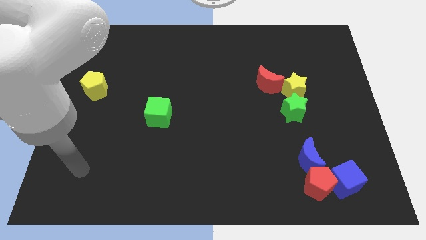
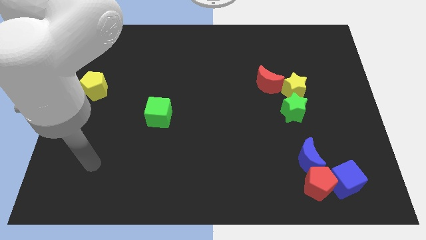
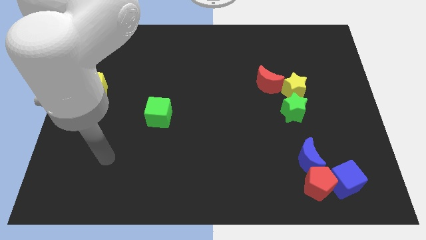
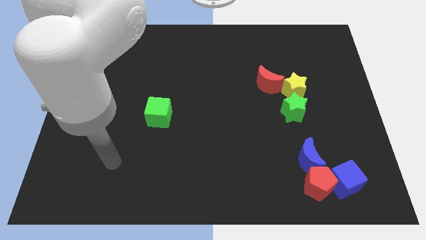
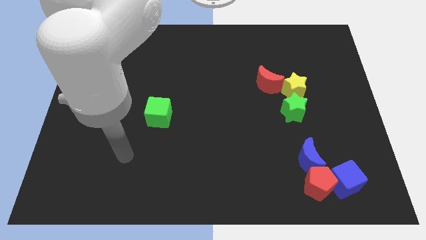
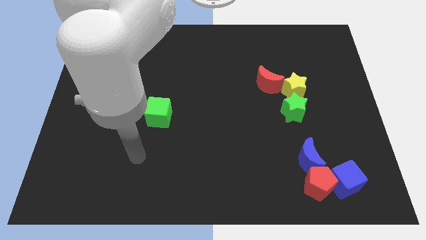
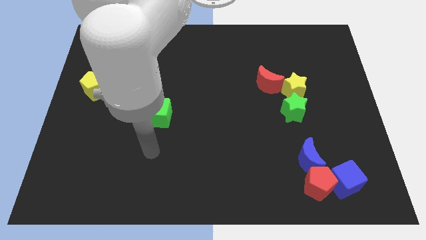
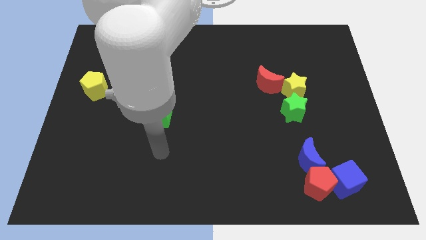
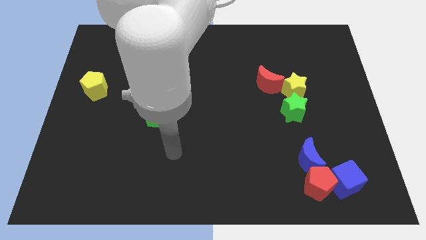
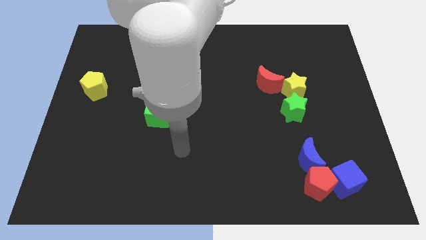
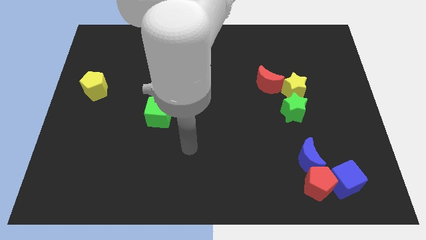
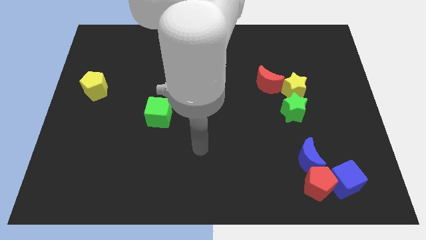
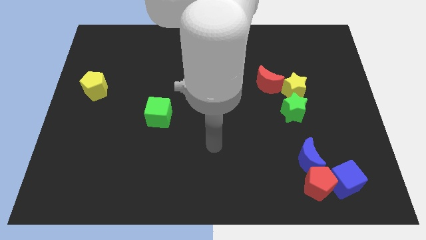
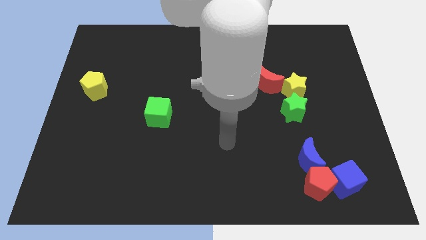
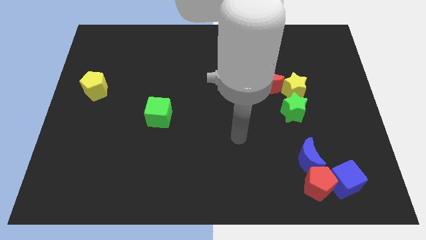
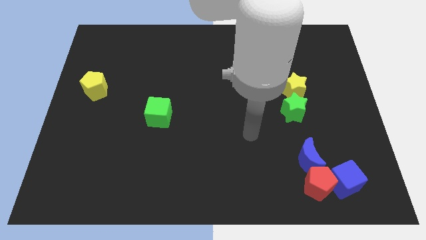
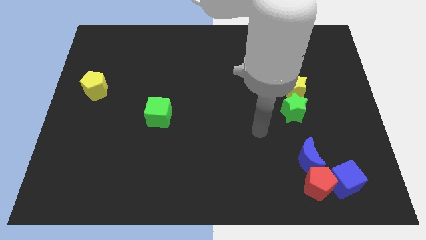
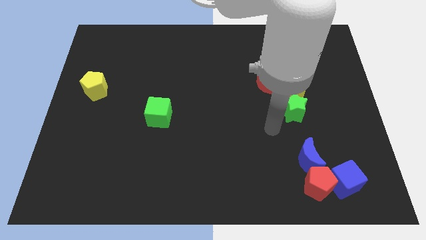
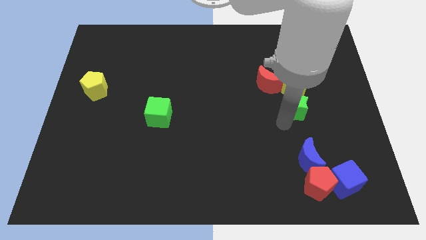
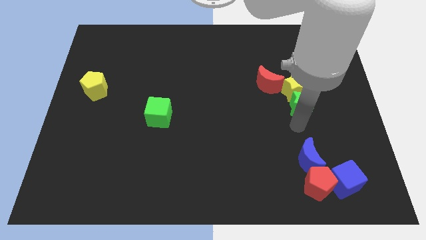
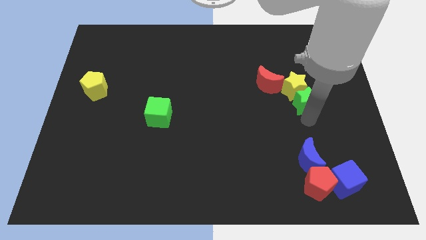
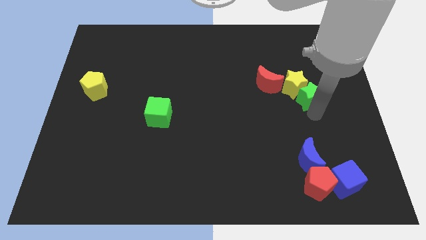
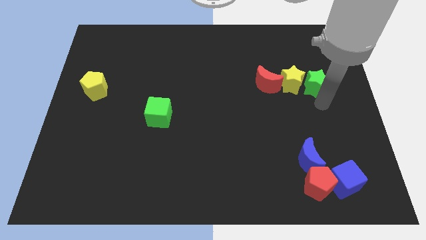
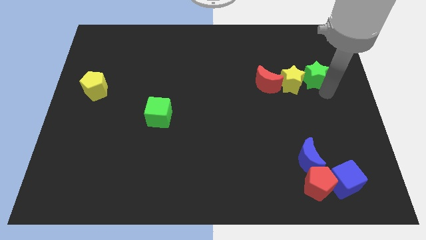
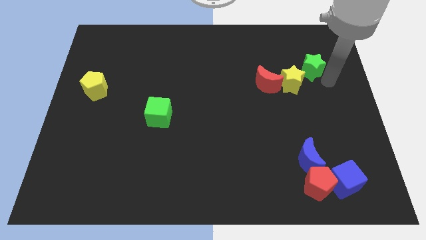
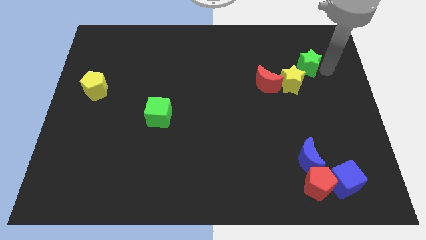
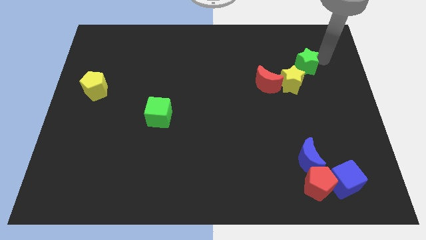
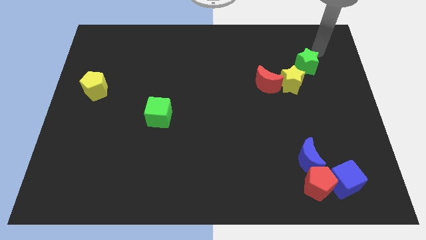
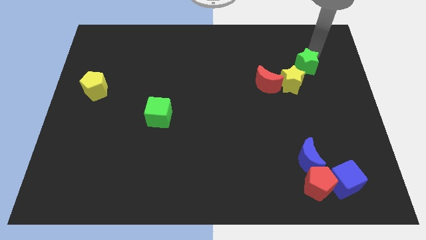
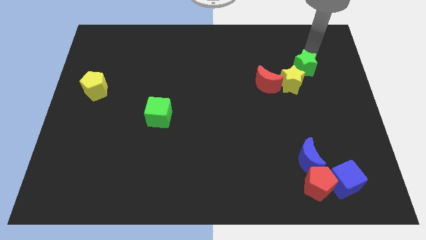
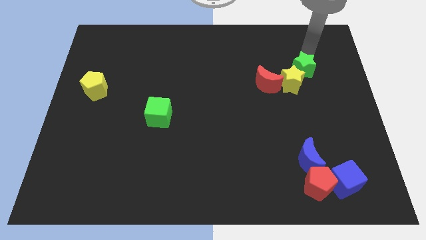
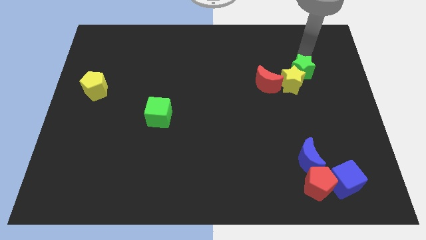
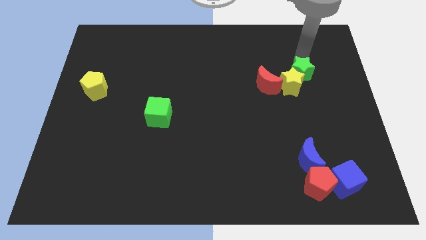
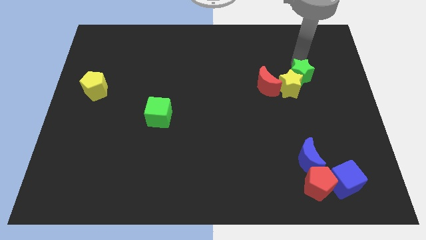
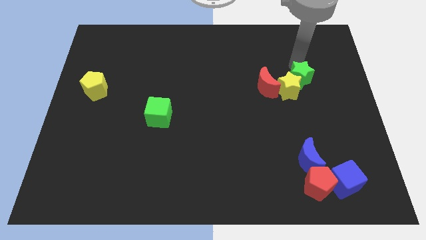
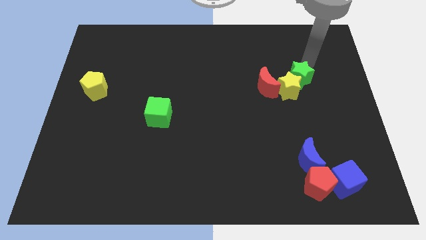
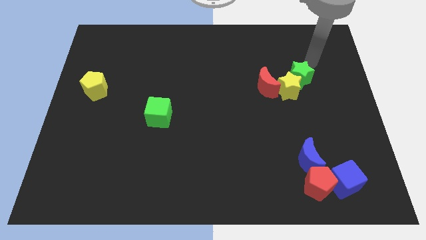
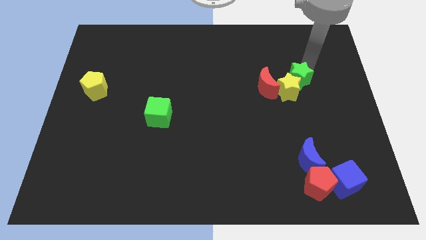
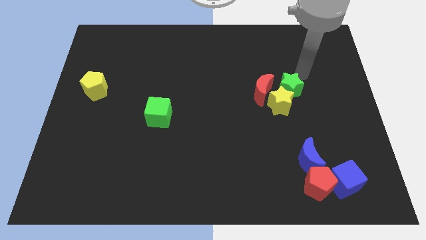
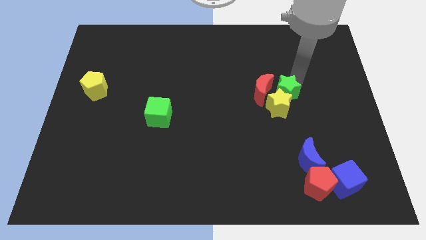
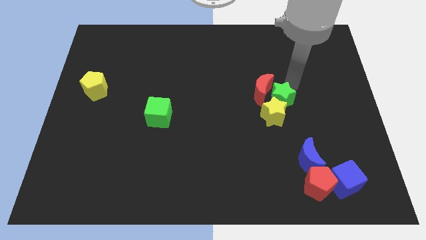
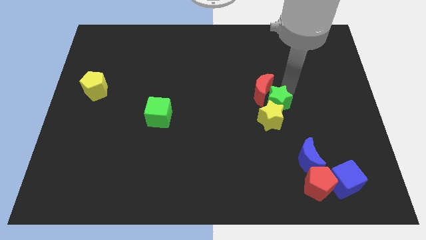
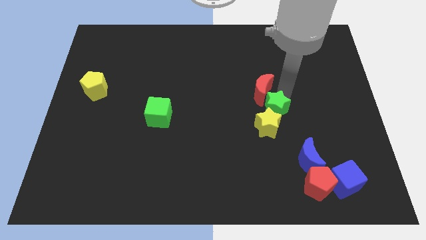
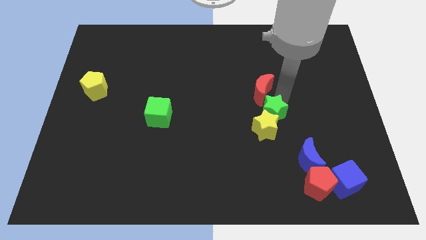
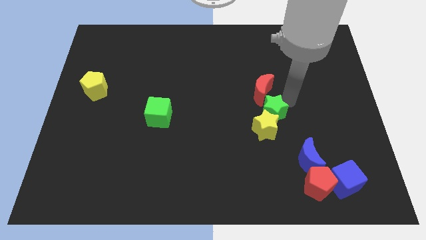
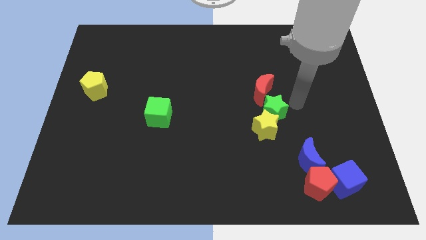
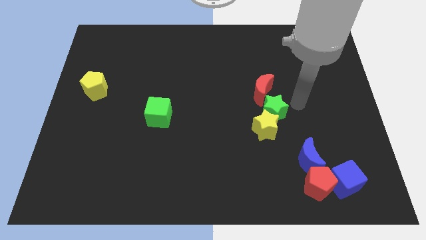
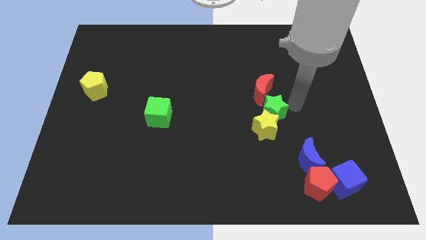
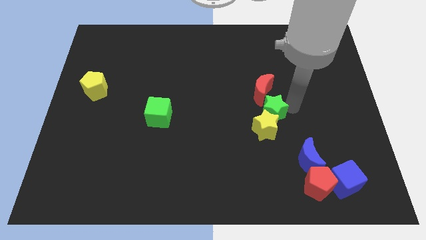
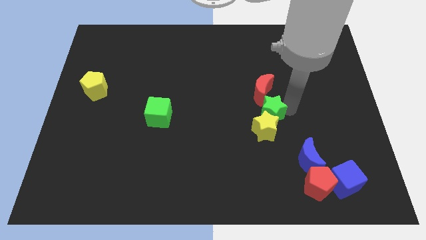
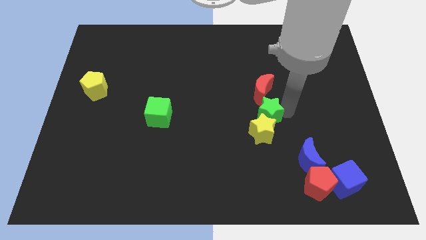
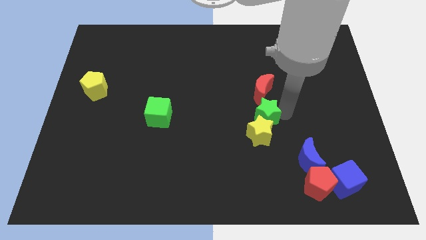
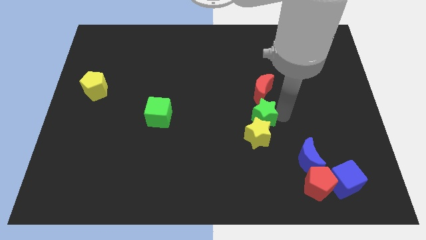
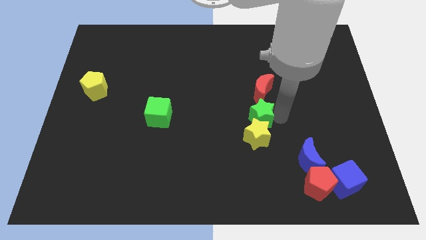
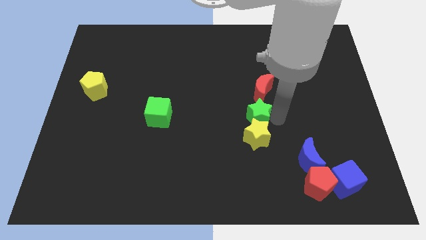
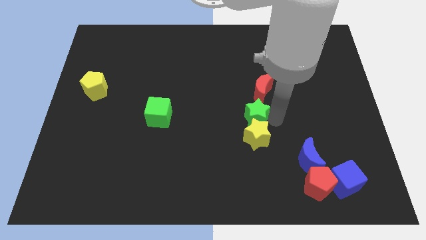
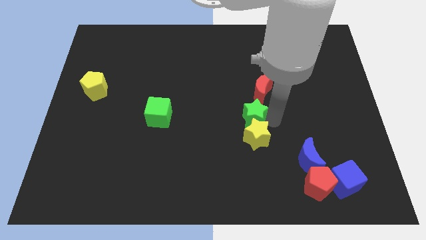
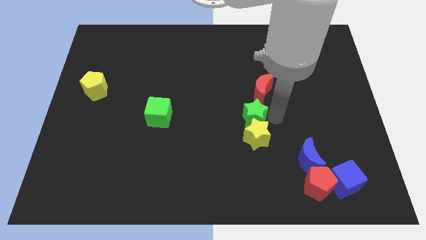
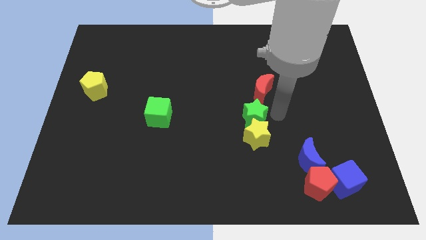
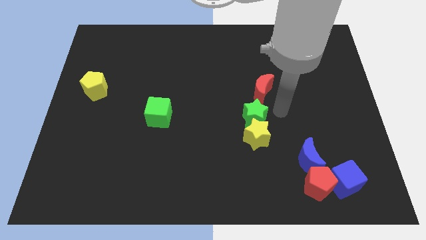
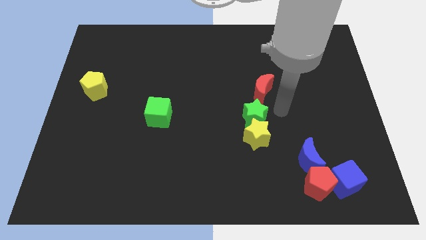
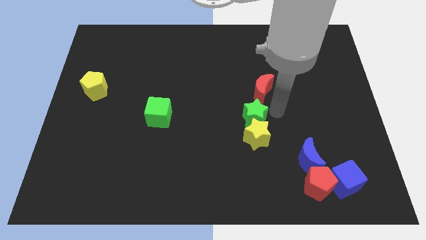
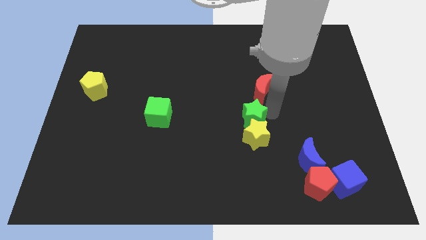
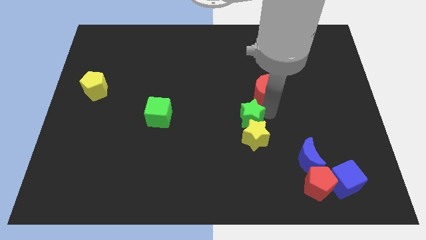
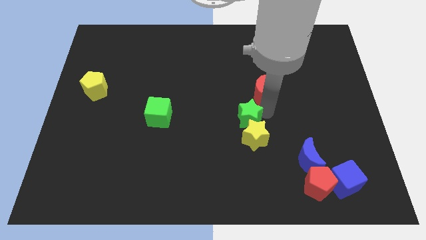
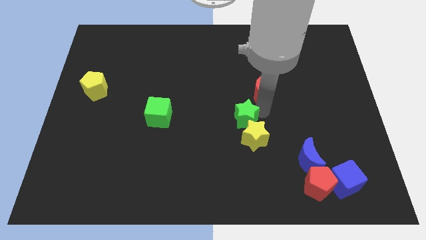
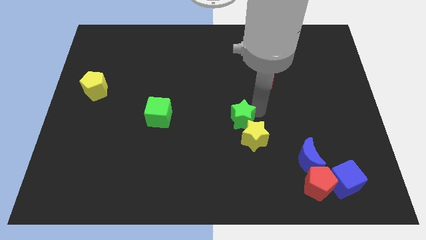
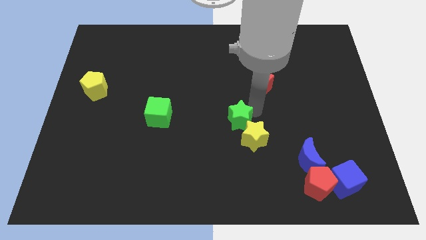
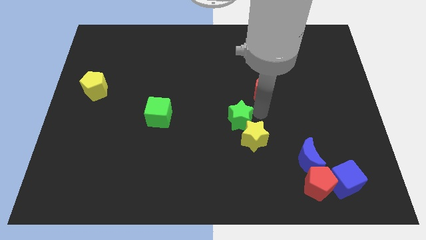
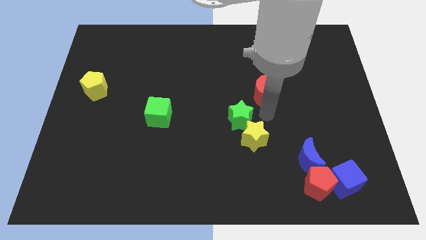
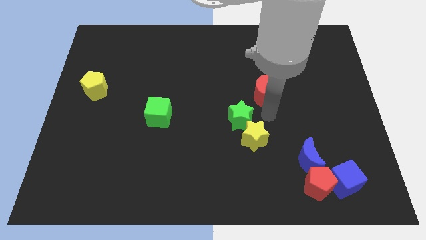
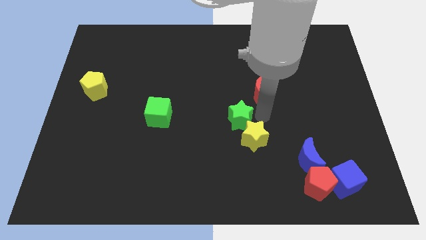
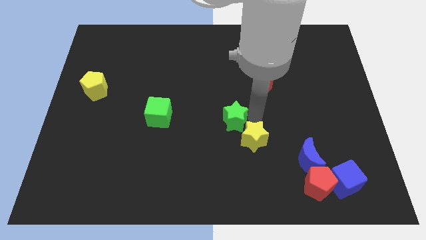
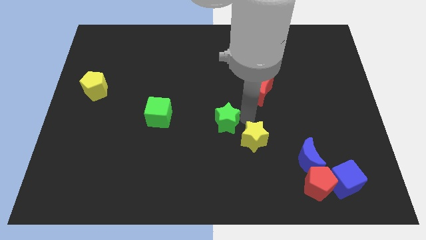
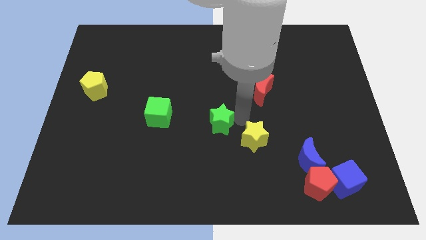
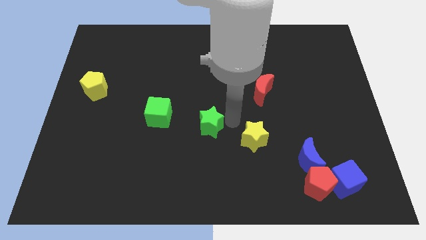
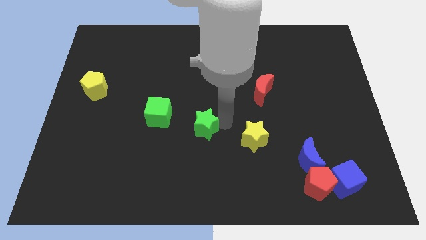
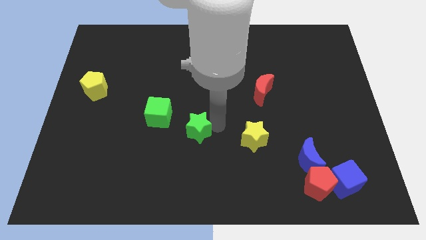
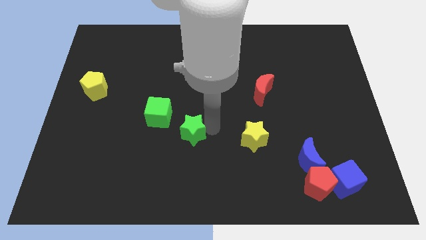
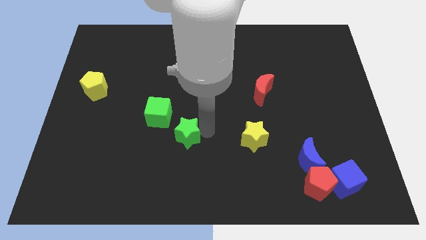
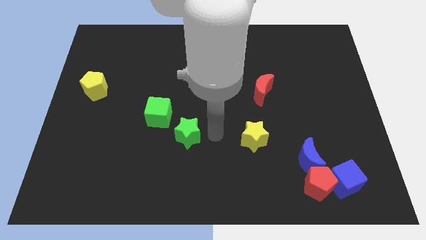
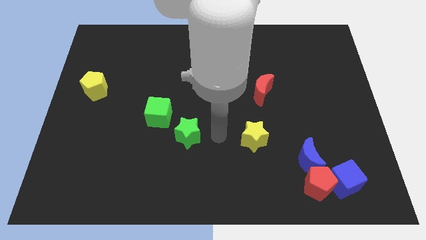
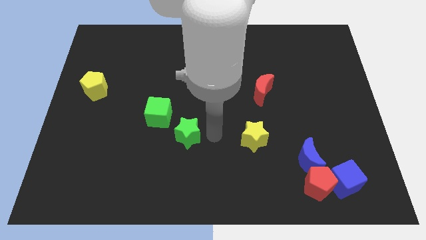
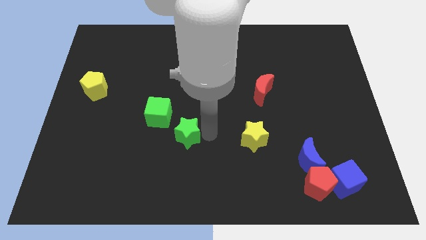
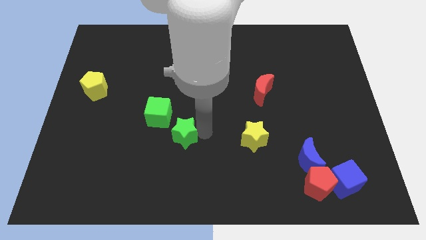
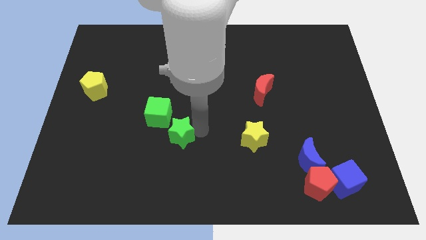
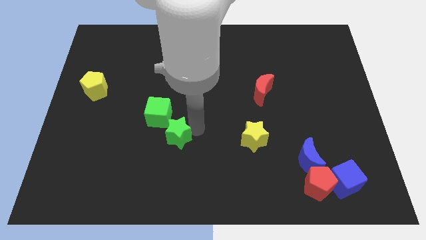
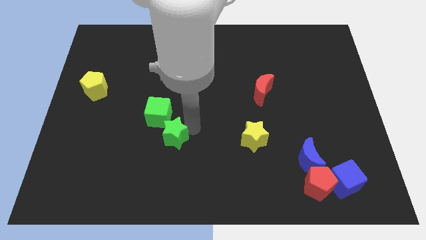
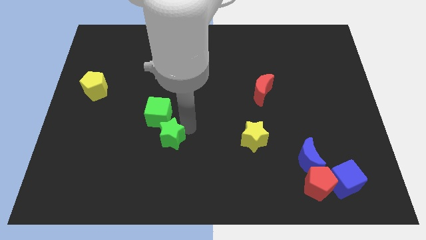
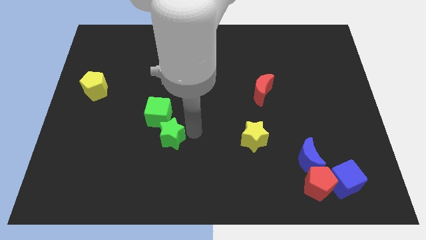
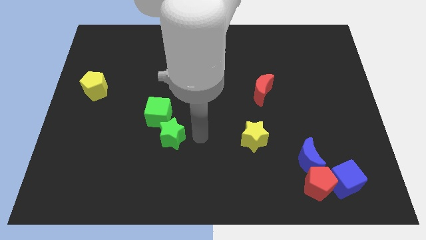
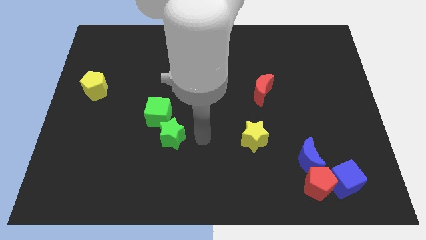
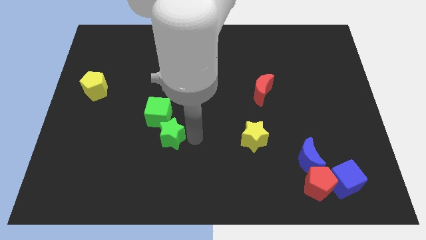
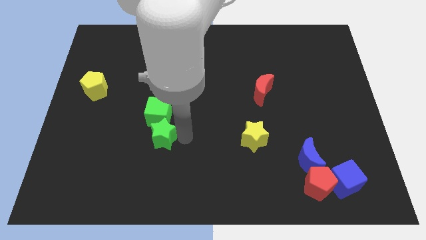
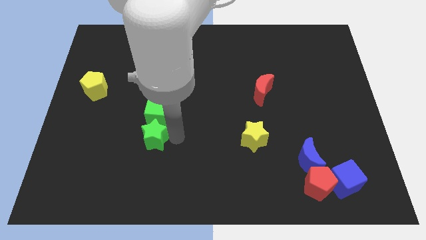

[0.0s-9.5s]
put the green star to the bottom left side of the green cube
